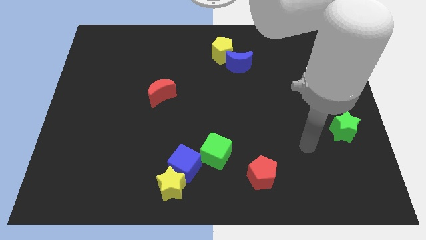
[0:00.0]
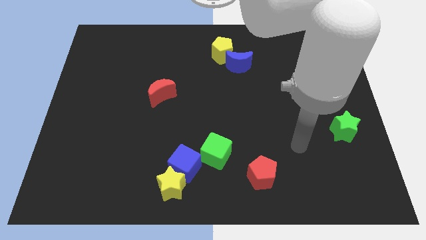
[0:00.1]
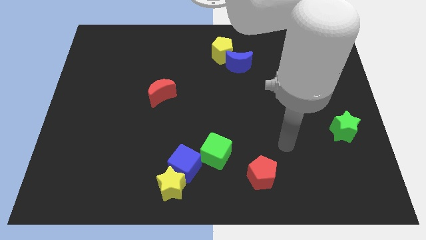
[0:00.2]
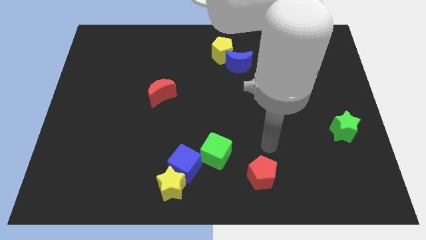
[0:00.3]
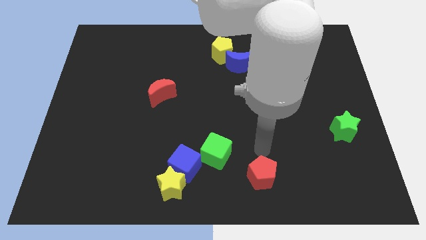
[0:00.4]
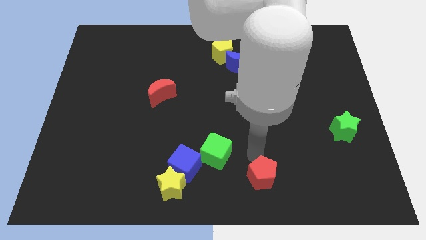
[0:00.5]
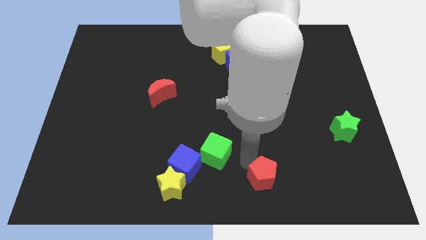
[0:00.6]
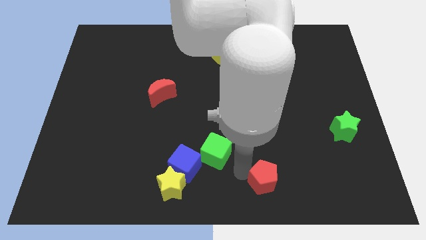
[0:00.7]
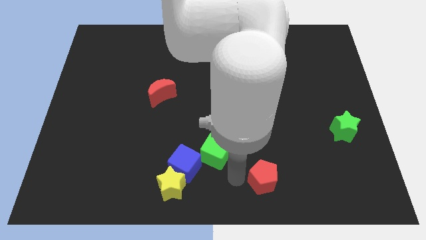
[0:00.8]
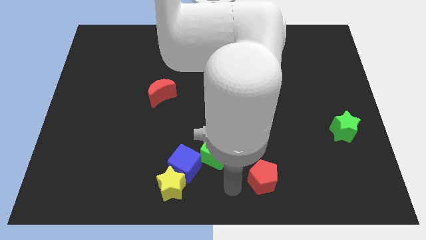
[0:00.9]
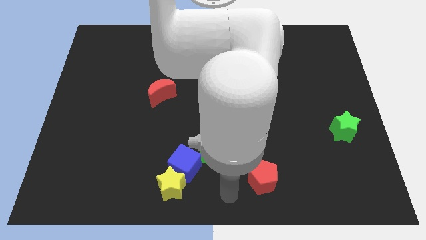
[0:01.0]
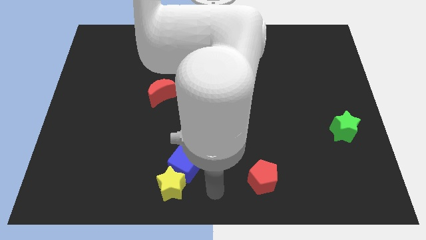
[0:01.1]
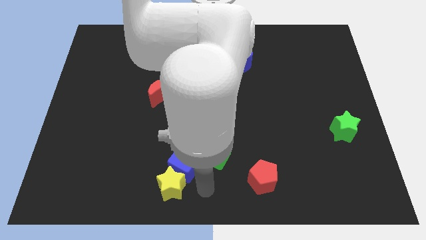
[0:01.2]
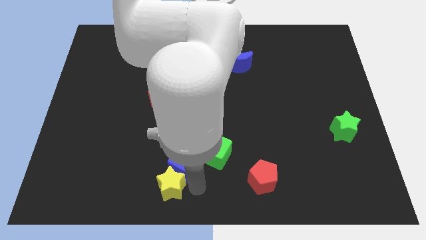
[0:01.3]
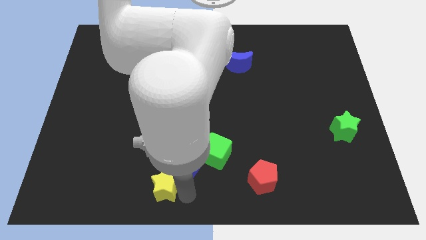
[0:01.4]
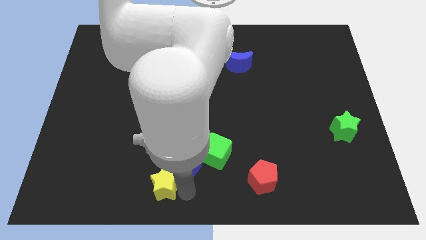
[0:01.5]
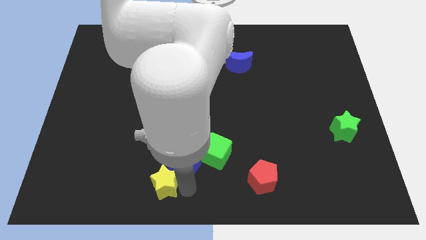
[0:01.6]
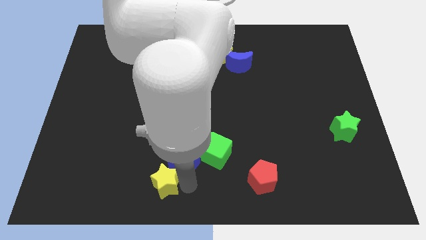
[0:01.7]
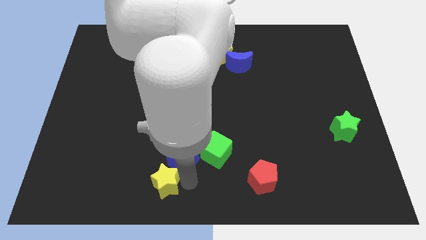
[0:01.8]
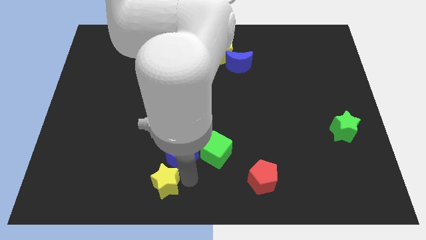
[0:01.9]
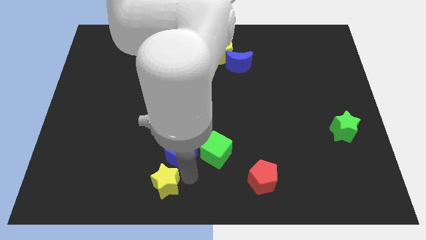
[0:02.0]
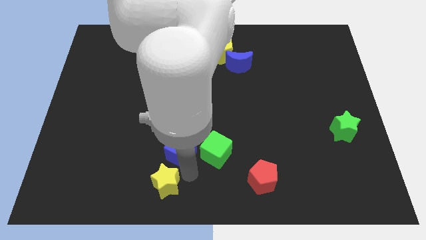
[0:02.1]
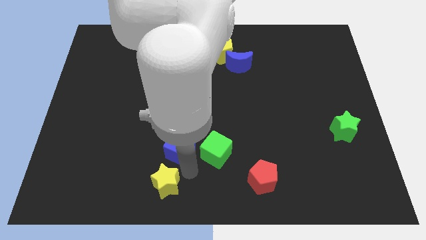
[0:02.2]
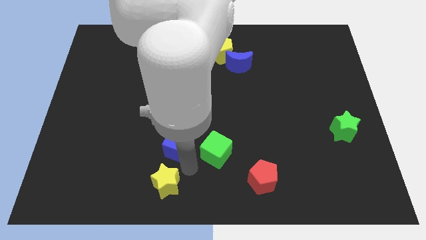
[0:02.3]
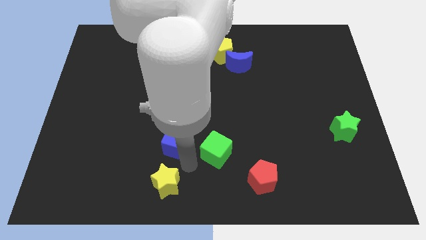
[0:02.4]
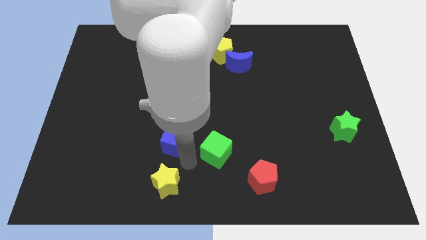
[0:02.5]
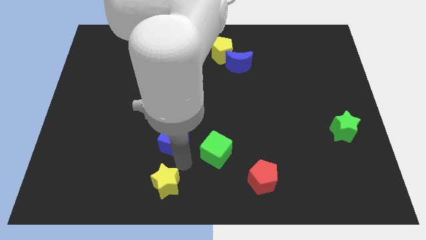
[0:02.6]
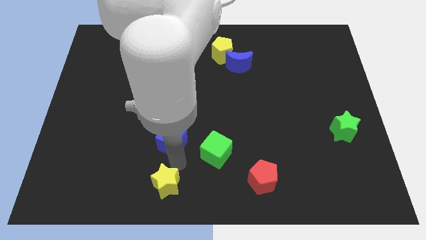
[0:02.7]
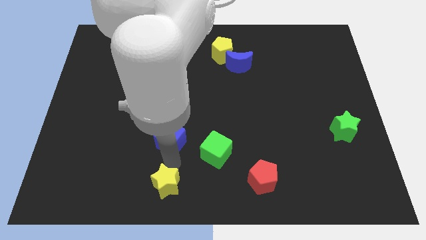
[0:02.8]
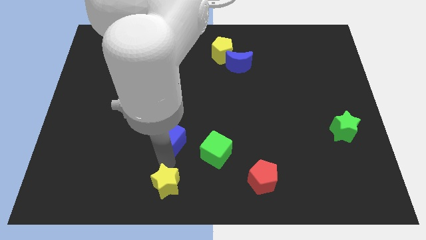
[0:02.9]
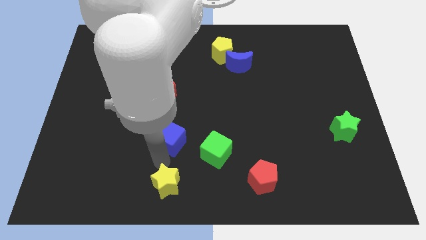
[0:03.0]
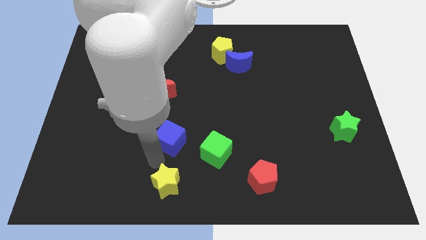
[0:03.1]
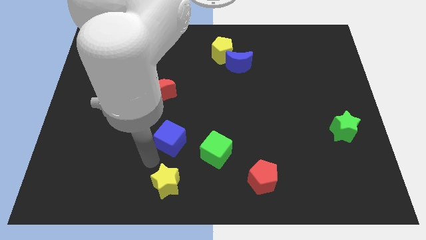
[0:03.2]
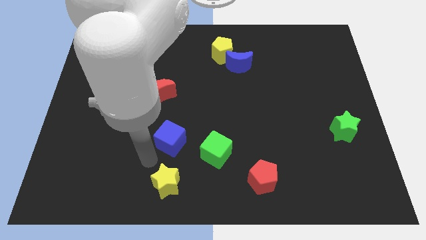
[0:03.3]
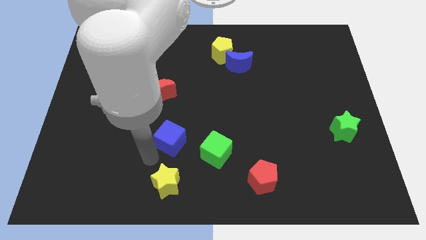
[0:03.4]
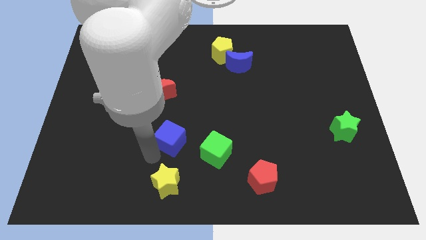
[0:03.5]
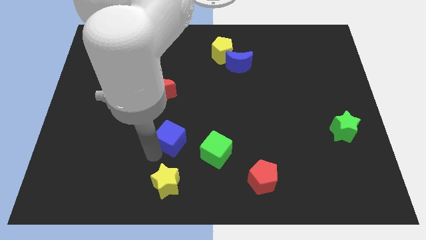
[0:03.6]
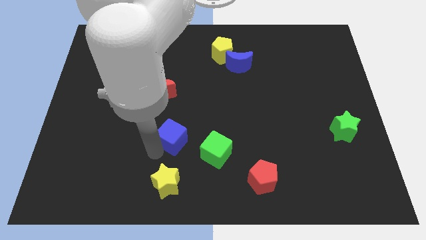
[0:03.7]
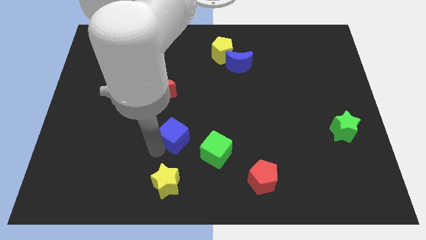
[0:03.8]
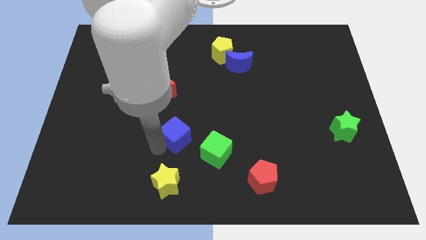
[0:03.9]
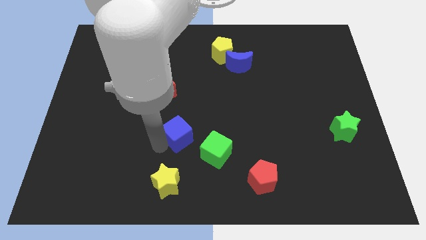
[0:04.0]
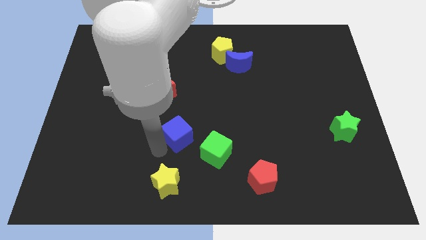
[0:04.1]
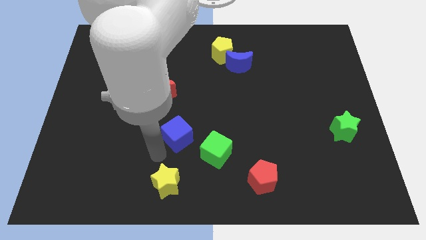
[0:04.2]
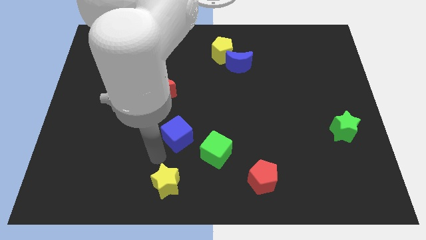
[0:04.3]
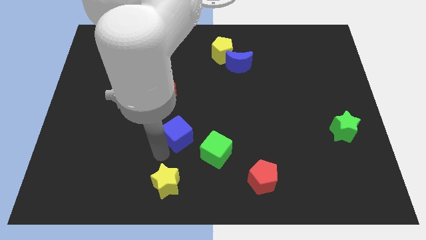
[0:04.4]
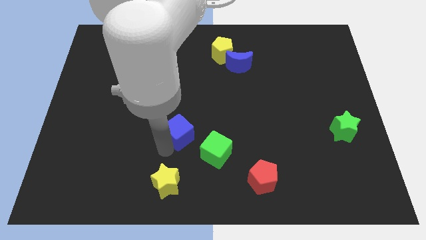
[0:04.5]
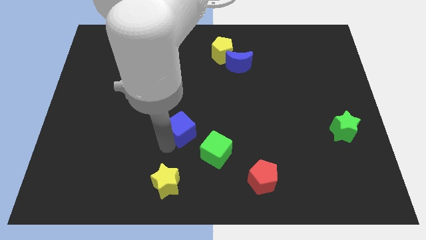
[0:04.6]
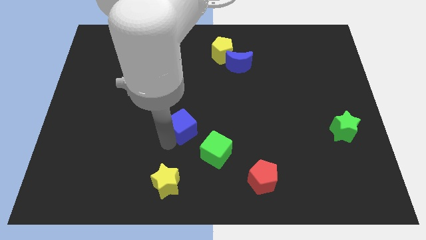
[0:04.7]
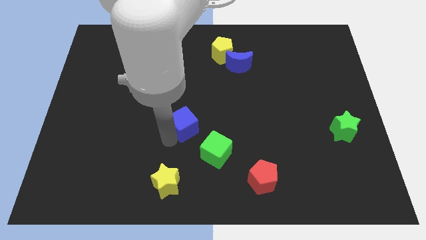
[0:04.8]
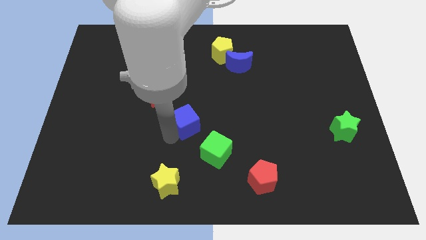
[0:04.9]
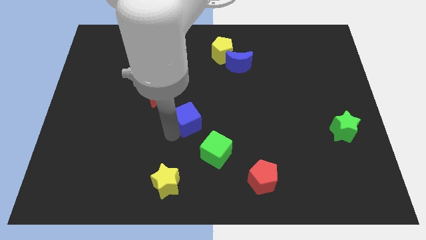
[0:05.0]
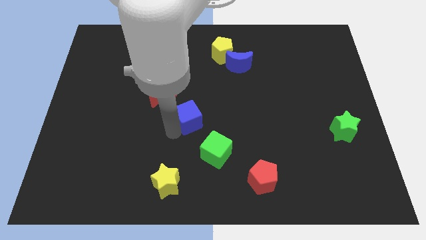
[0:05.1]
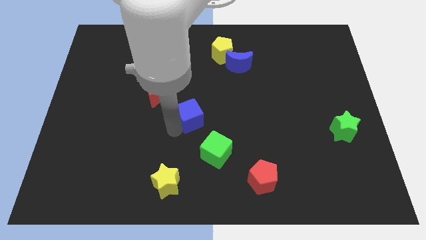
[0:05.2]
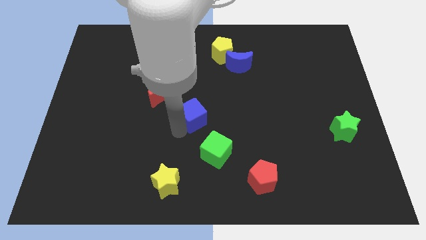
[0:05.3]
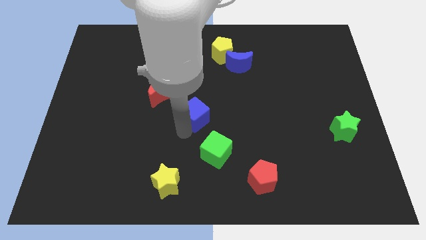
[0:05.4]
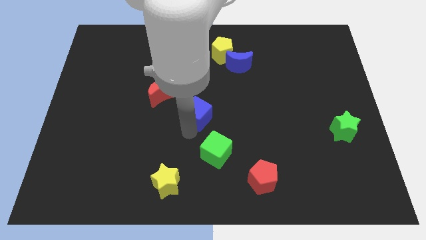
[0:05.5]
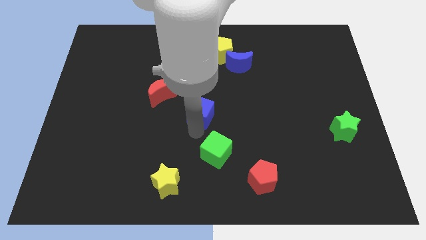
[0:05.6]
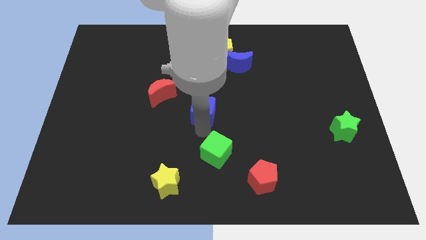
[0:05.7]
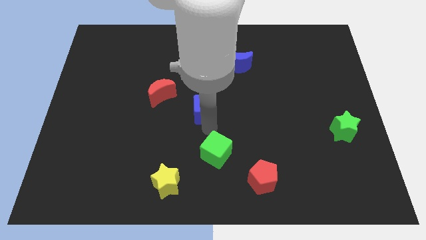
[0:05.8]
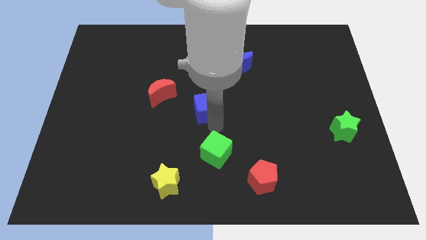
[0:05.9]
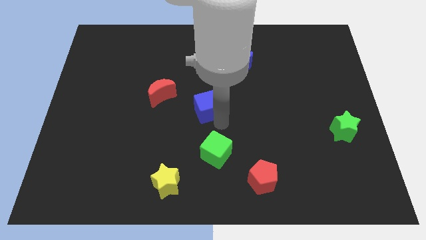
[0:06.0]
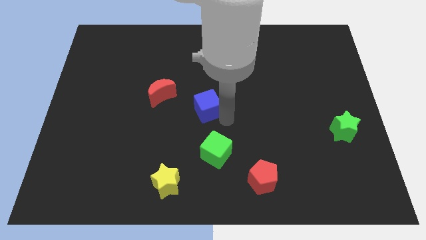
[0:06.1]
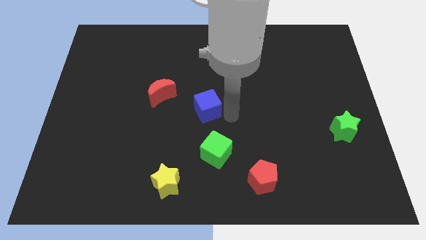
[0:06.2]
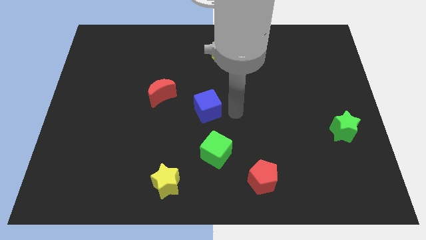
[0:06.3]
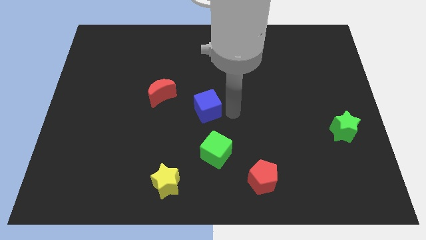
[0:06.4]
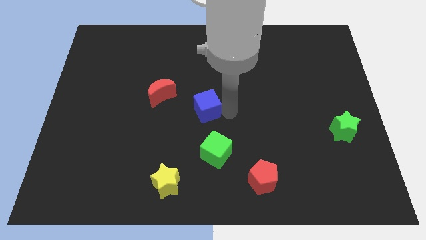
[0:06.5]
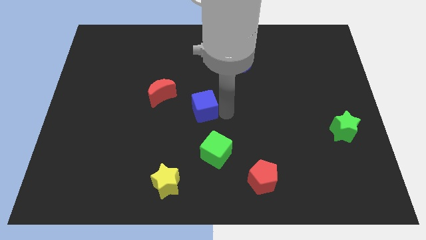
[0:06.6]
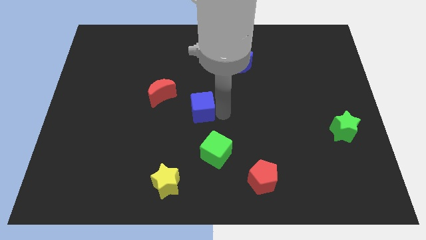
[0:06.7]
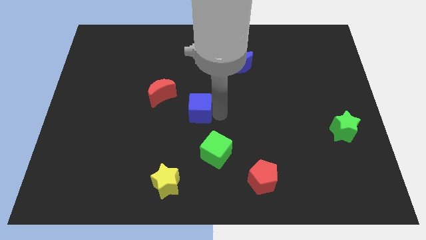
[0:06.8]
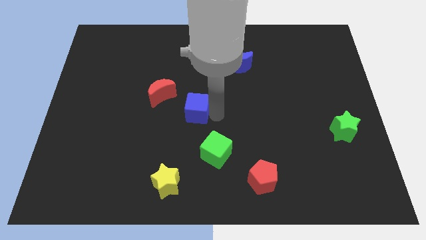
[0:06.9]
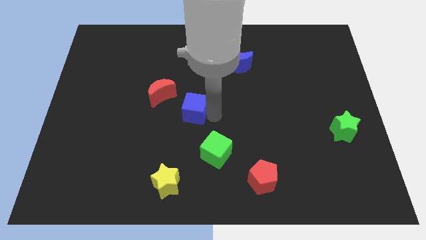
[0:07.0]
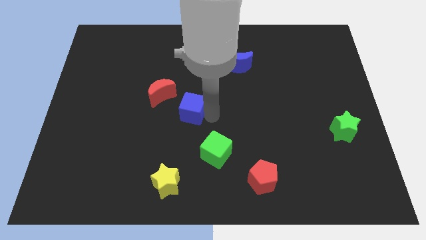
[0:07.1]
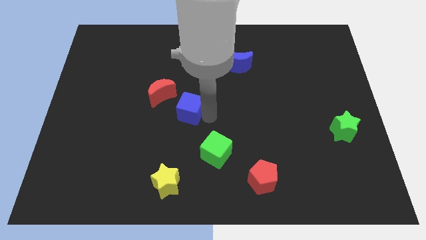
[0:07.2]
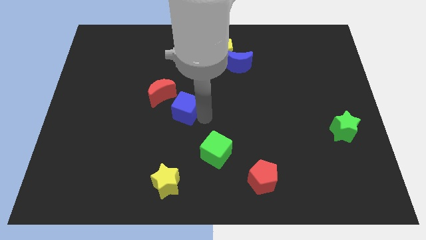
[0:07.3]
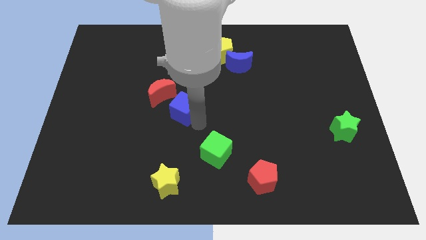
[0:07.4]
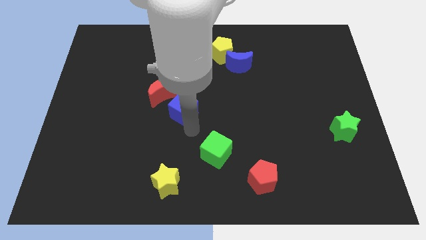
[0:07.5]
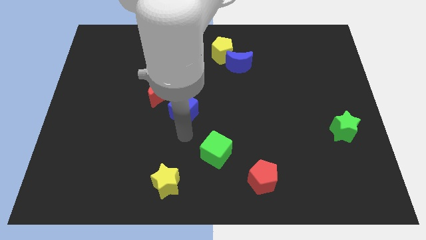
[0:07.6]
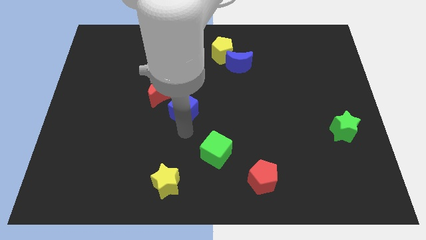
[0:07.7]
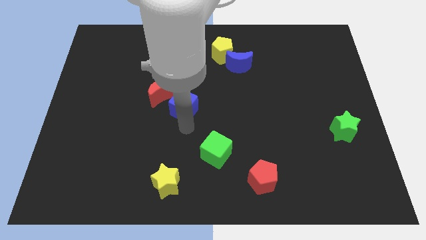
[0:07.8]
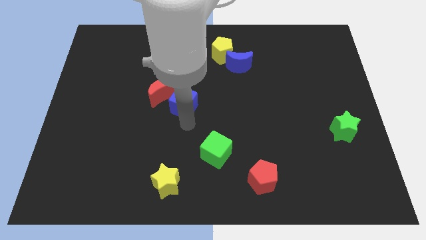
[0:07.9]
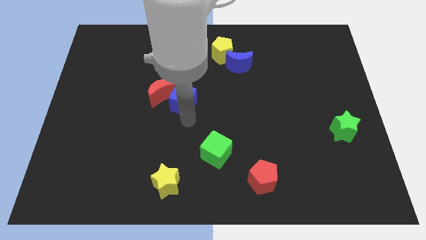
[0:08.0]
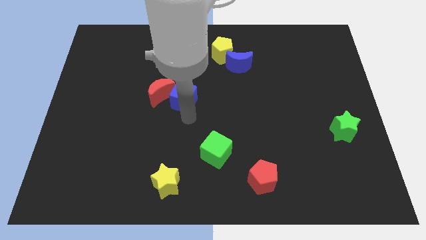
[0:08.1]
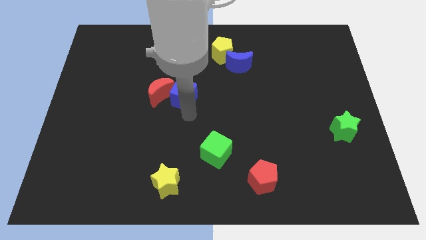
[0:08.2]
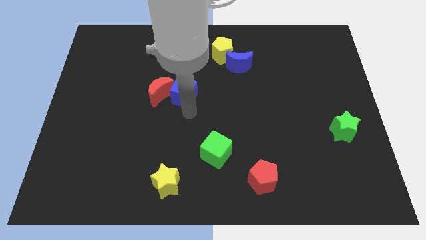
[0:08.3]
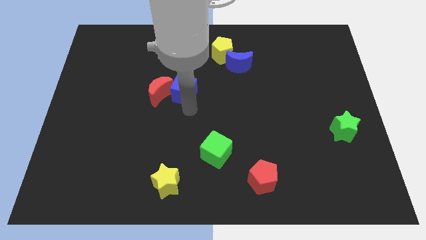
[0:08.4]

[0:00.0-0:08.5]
slide the blue cube upwards
